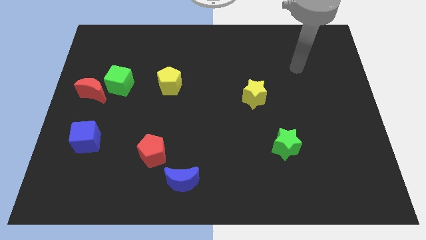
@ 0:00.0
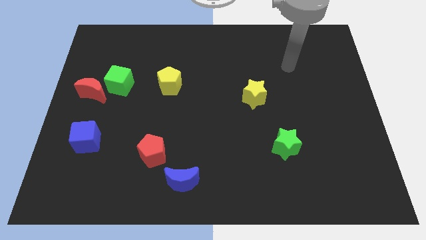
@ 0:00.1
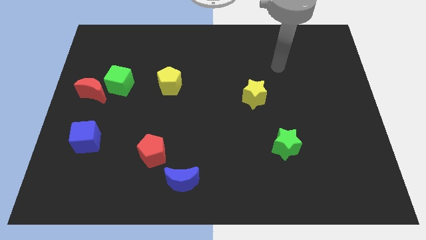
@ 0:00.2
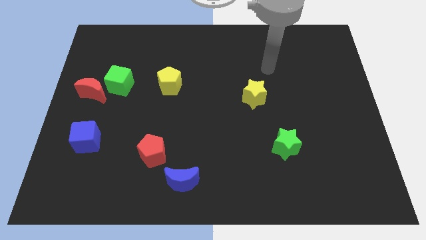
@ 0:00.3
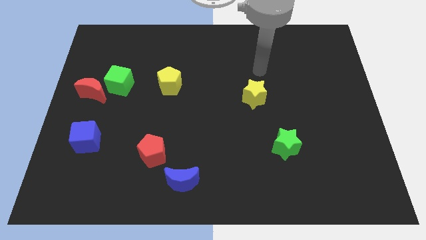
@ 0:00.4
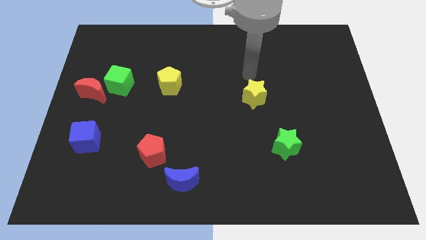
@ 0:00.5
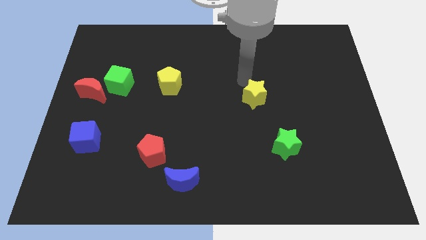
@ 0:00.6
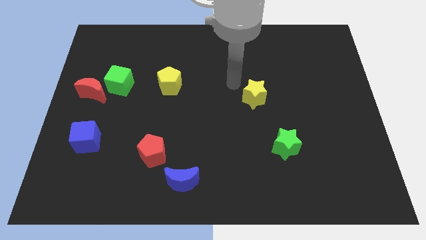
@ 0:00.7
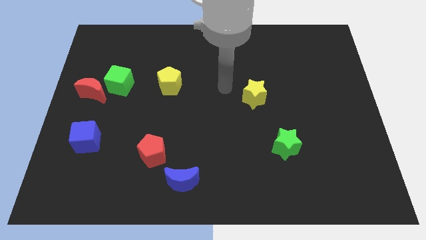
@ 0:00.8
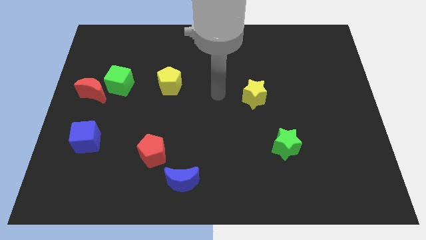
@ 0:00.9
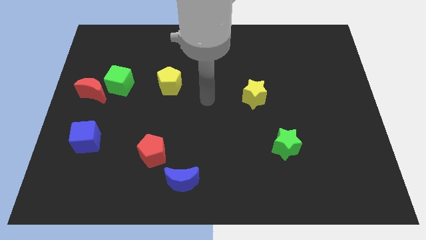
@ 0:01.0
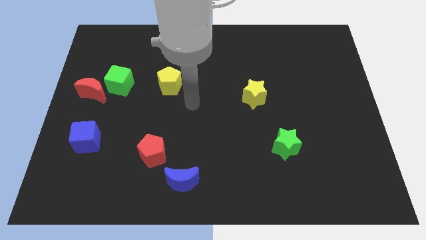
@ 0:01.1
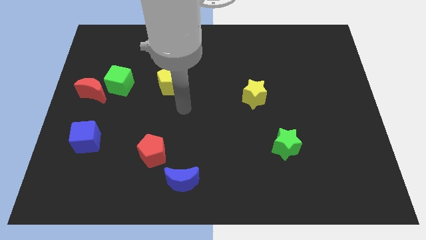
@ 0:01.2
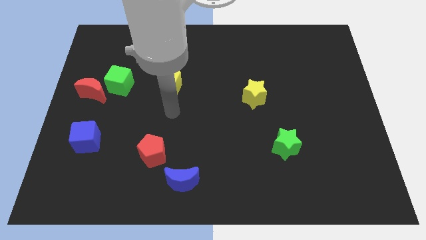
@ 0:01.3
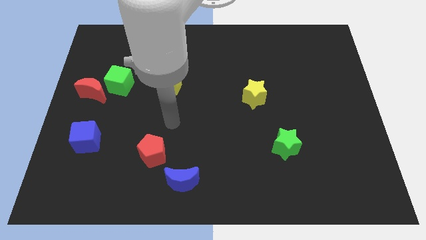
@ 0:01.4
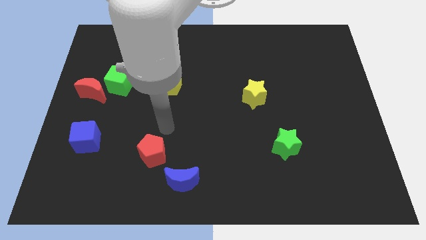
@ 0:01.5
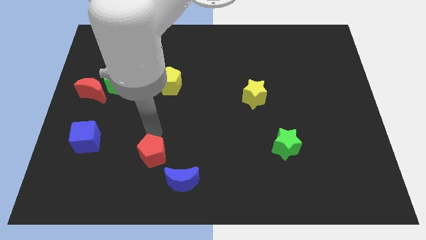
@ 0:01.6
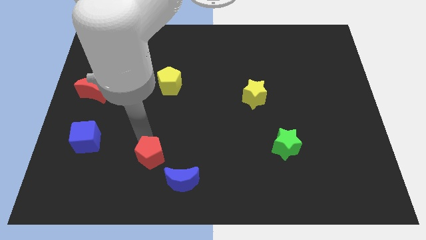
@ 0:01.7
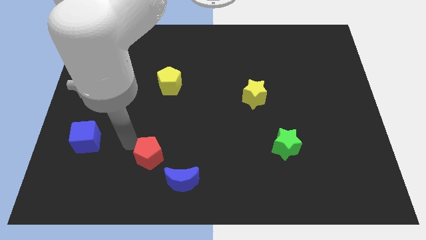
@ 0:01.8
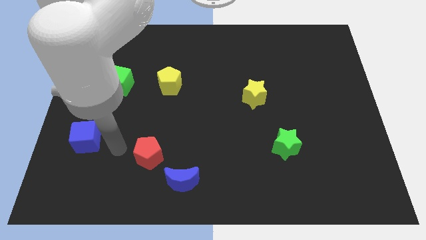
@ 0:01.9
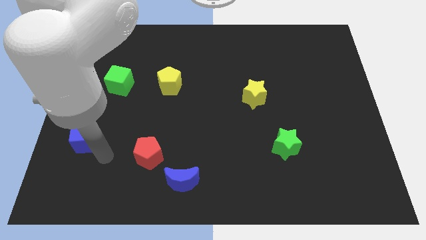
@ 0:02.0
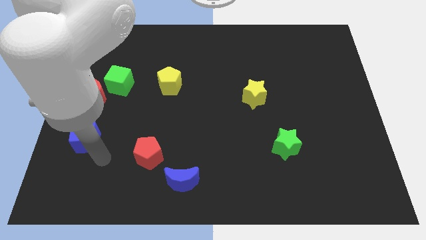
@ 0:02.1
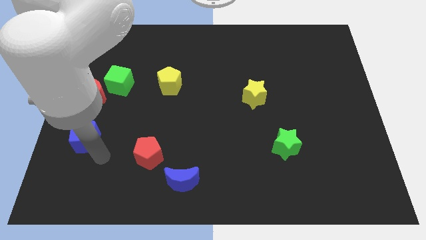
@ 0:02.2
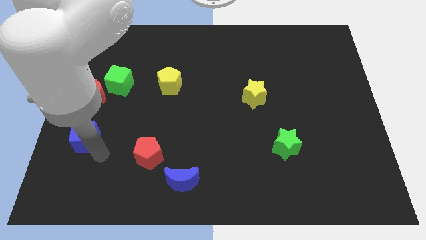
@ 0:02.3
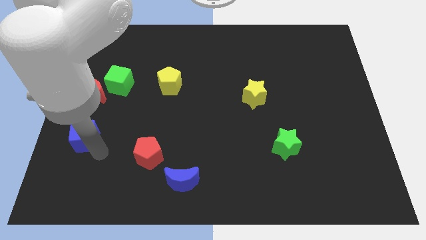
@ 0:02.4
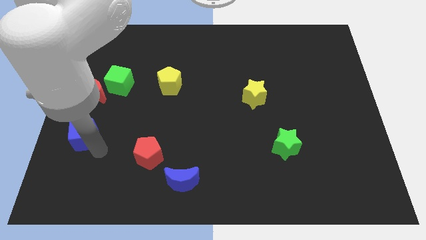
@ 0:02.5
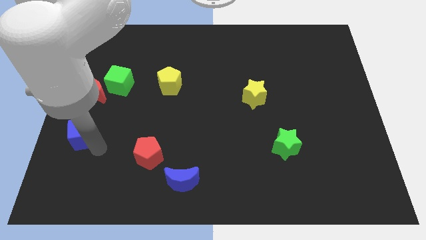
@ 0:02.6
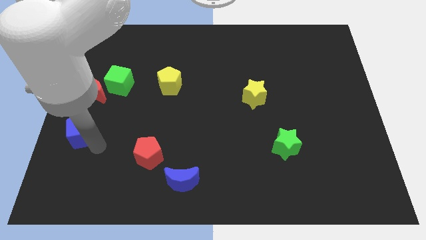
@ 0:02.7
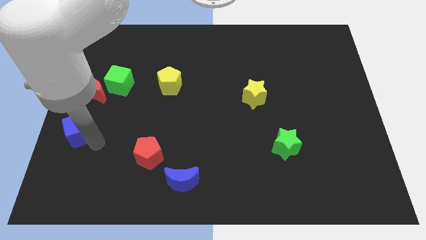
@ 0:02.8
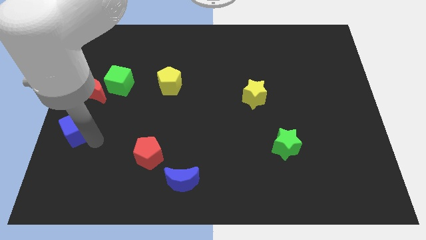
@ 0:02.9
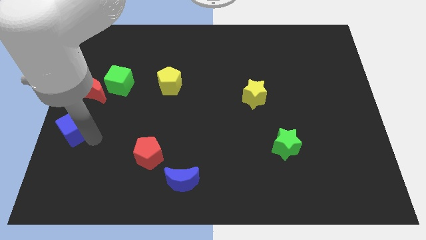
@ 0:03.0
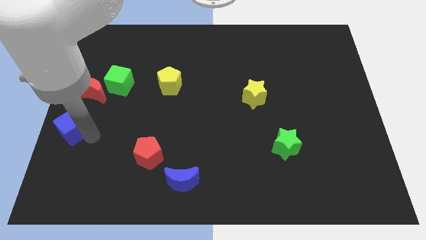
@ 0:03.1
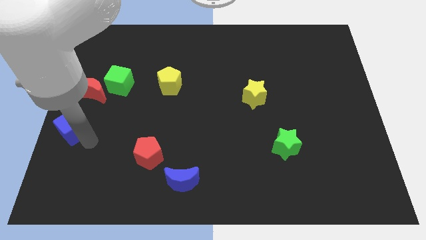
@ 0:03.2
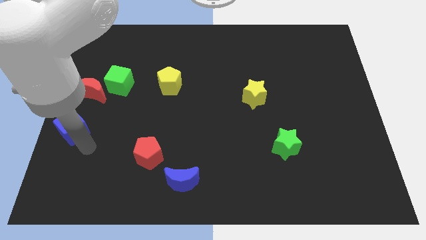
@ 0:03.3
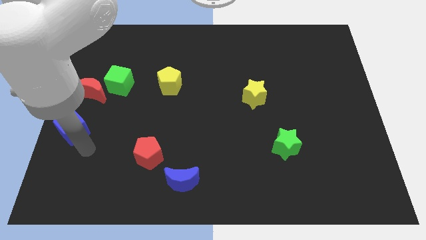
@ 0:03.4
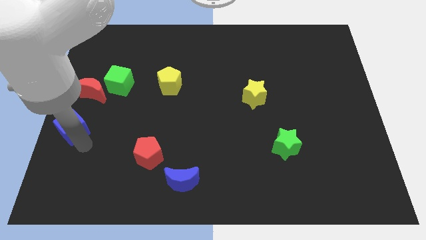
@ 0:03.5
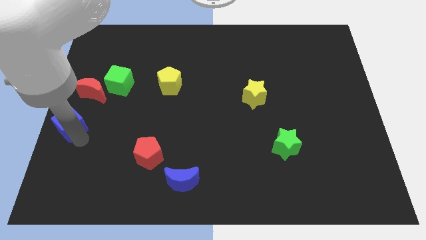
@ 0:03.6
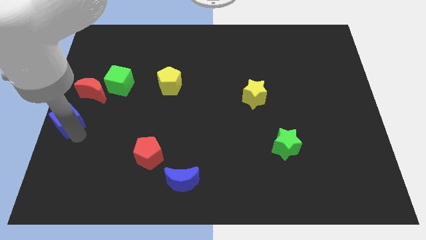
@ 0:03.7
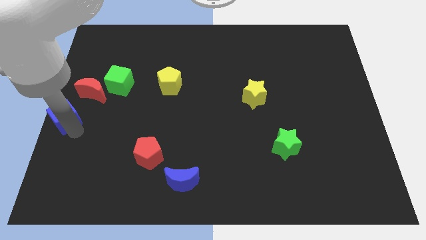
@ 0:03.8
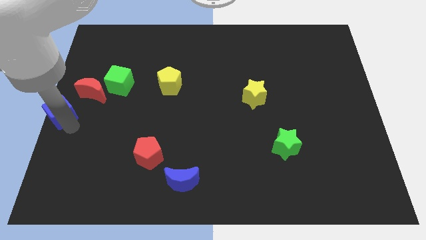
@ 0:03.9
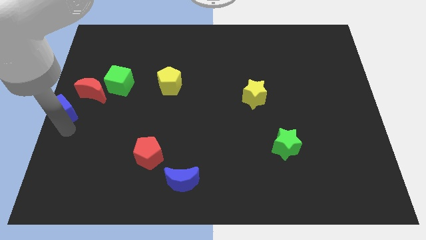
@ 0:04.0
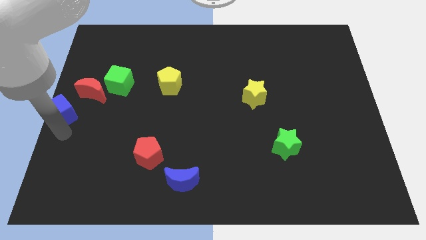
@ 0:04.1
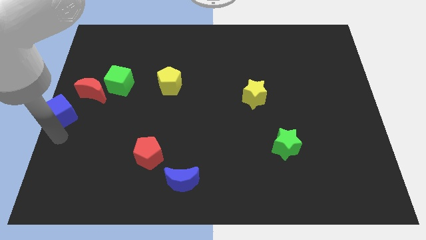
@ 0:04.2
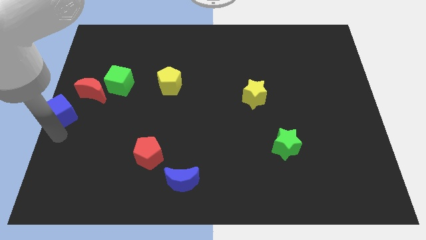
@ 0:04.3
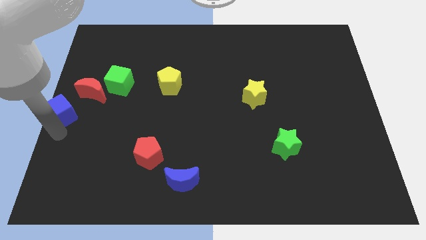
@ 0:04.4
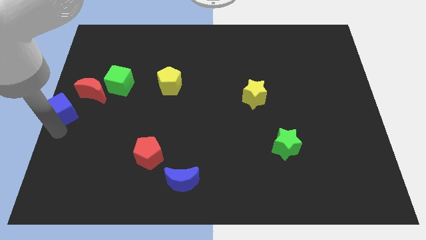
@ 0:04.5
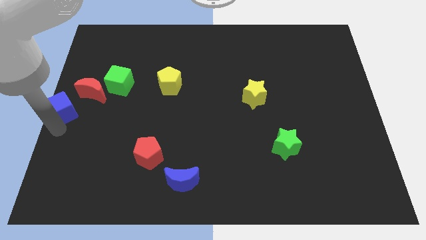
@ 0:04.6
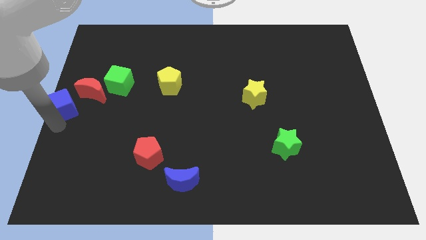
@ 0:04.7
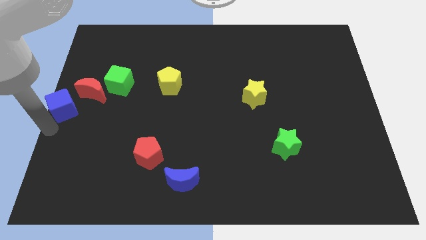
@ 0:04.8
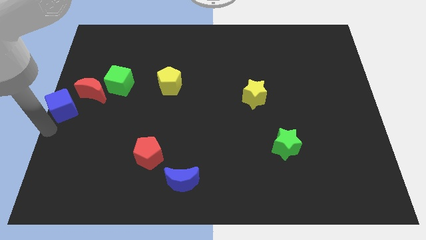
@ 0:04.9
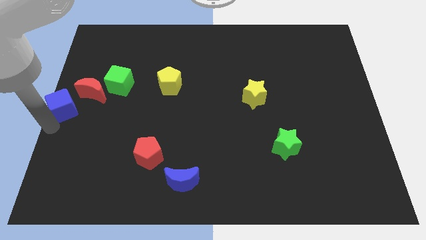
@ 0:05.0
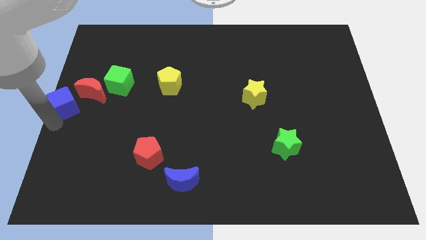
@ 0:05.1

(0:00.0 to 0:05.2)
slide the blue cube somewhat upwards

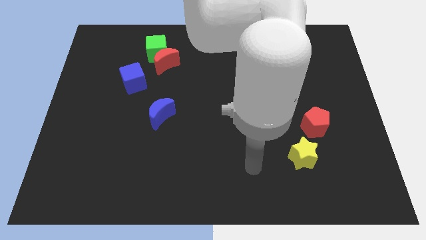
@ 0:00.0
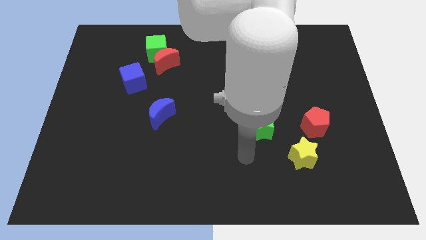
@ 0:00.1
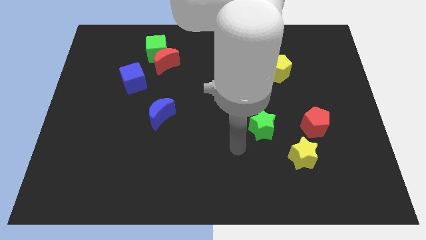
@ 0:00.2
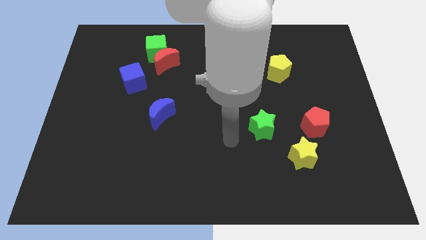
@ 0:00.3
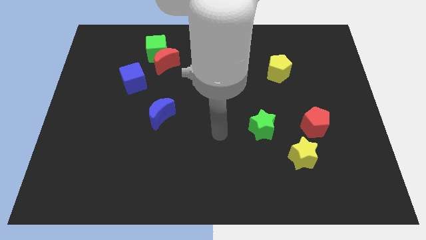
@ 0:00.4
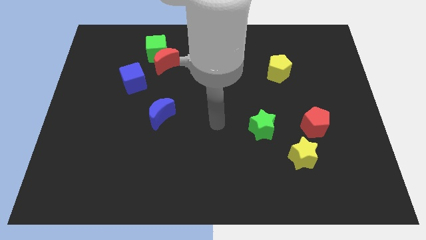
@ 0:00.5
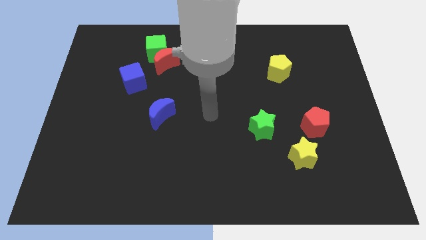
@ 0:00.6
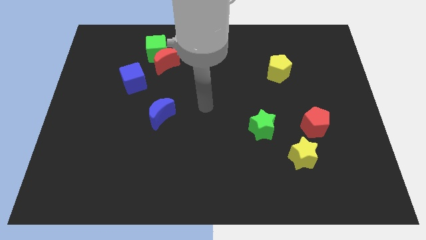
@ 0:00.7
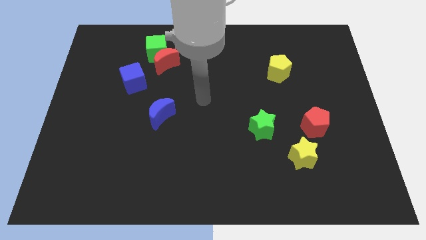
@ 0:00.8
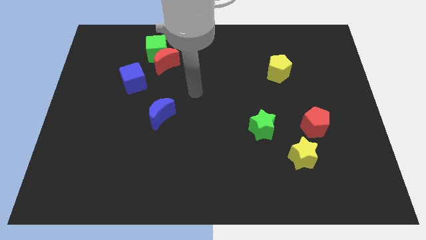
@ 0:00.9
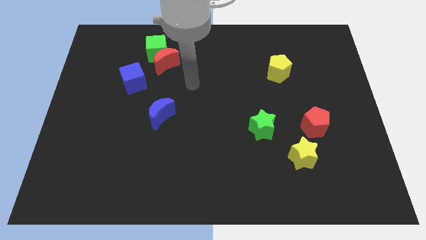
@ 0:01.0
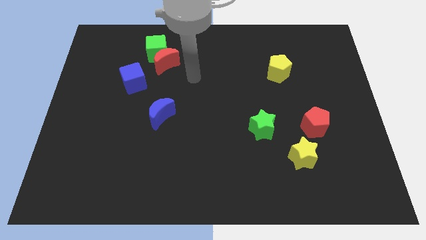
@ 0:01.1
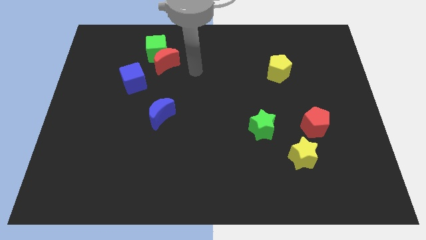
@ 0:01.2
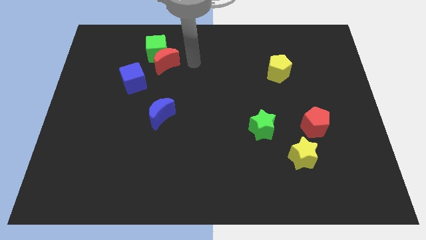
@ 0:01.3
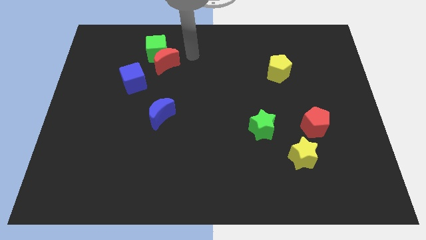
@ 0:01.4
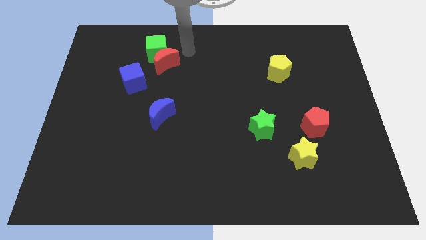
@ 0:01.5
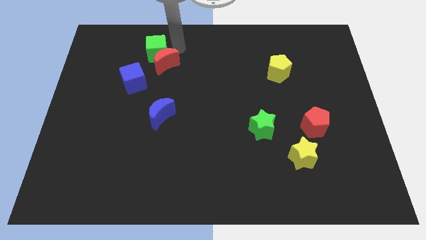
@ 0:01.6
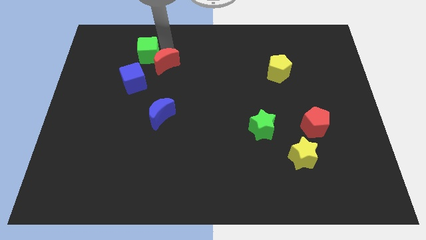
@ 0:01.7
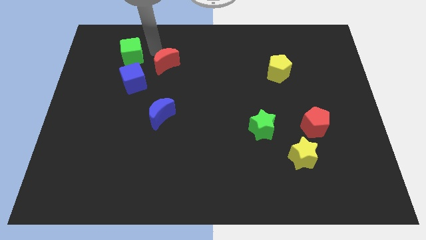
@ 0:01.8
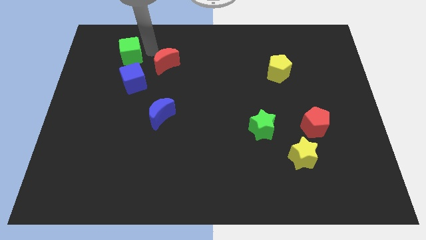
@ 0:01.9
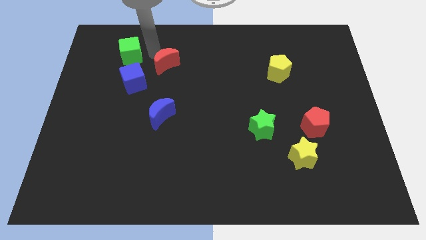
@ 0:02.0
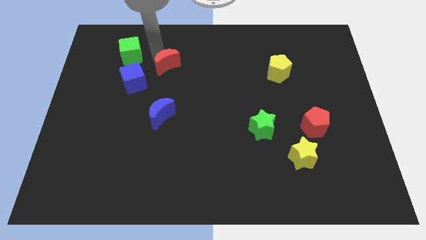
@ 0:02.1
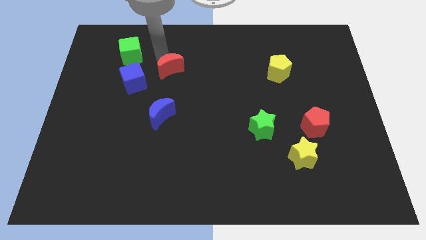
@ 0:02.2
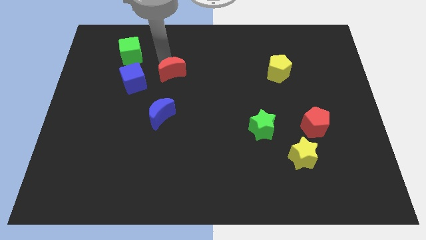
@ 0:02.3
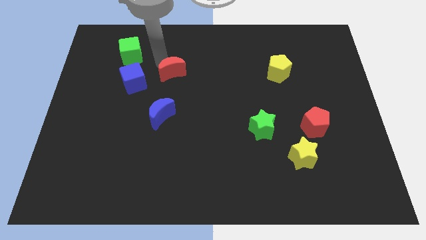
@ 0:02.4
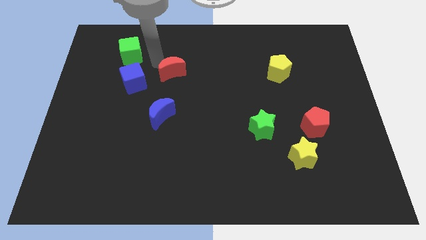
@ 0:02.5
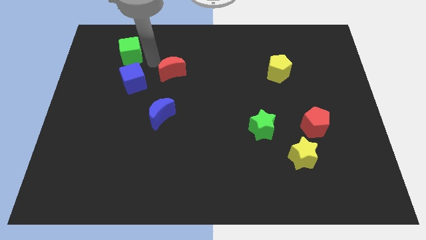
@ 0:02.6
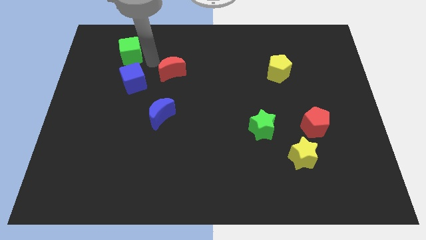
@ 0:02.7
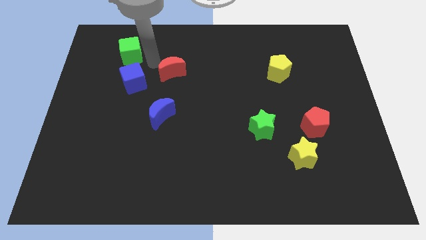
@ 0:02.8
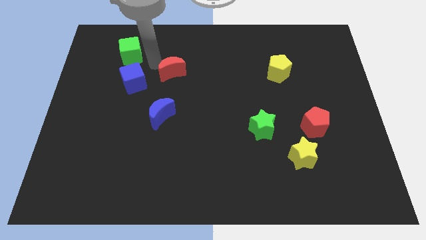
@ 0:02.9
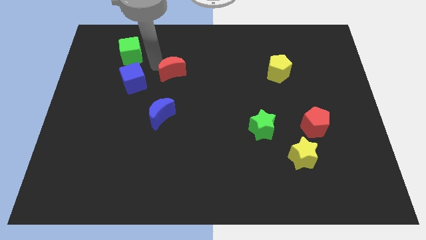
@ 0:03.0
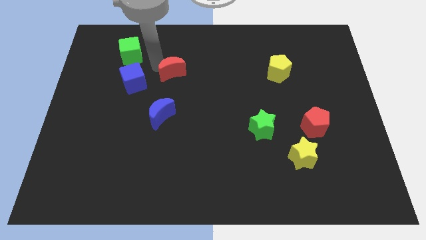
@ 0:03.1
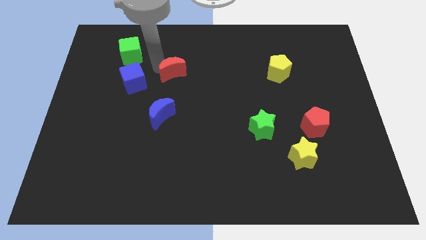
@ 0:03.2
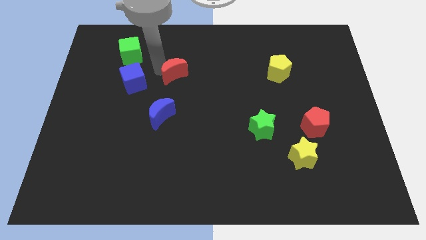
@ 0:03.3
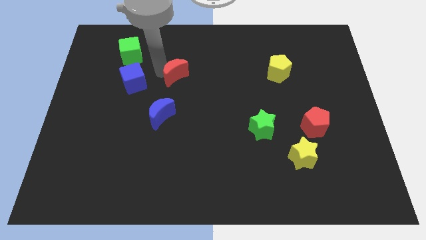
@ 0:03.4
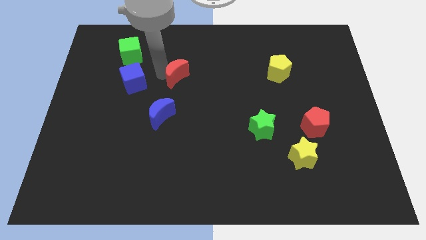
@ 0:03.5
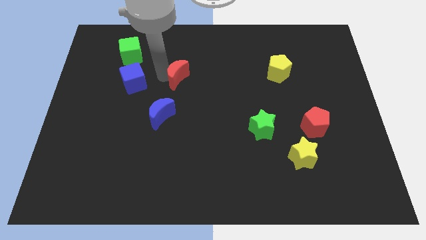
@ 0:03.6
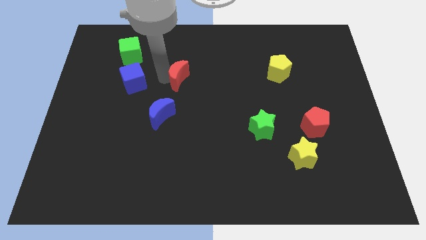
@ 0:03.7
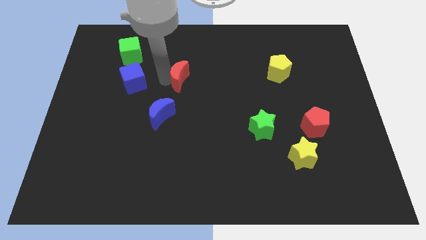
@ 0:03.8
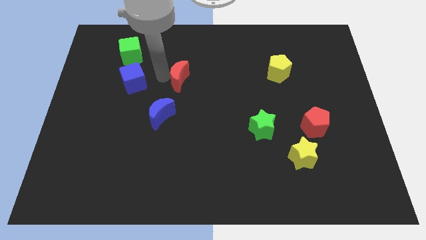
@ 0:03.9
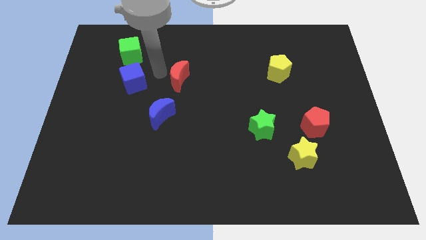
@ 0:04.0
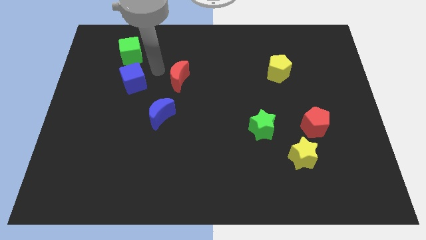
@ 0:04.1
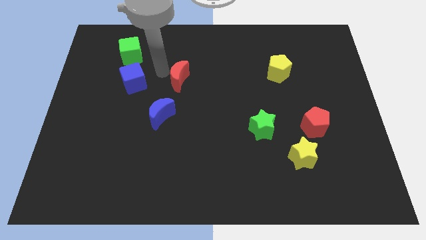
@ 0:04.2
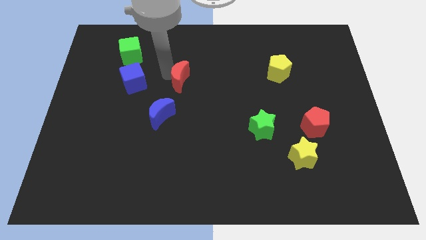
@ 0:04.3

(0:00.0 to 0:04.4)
slide the red moon diagonally down and to the right somewhat
